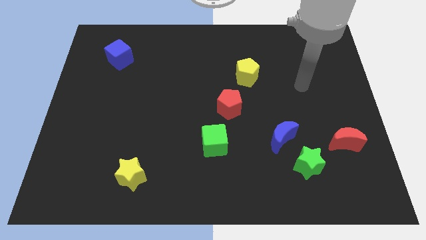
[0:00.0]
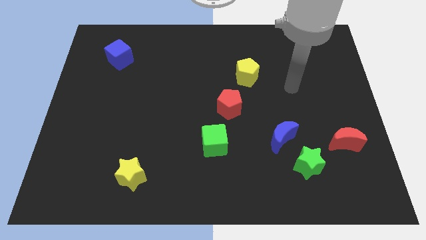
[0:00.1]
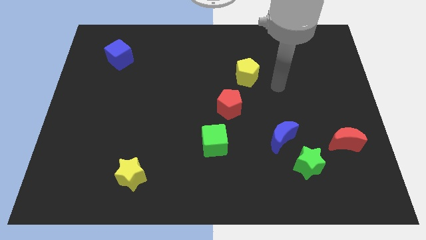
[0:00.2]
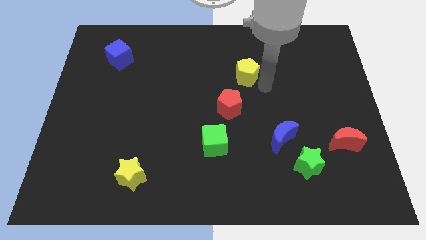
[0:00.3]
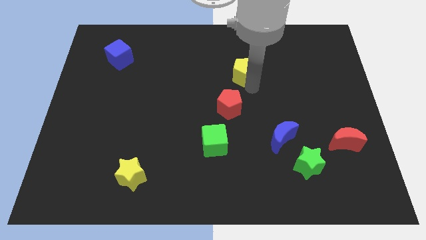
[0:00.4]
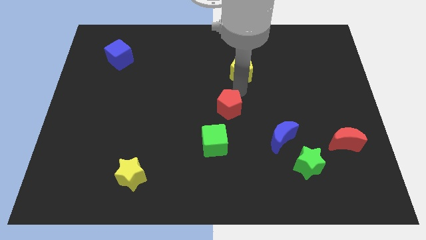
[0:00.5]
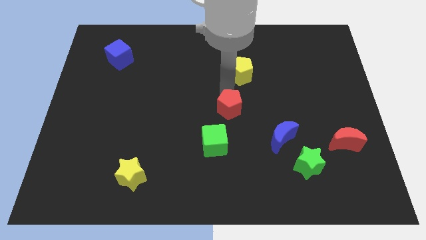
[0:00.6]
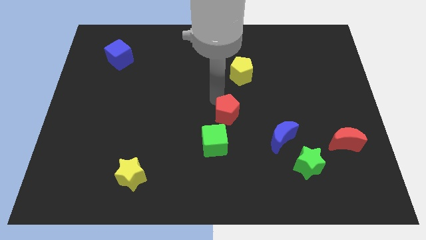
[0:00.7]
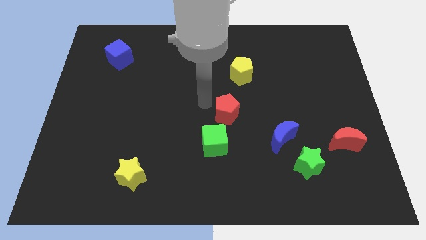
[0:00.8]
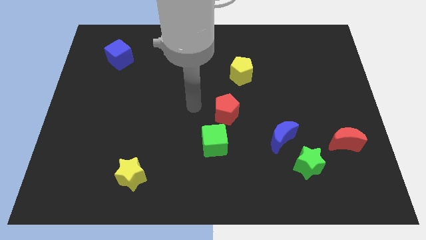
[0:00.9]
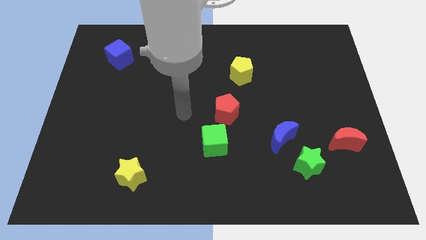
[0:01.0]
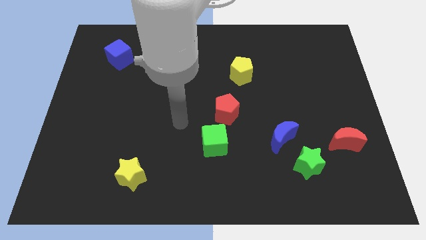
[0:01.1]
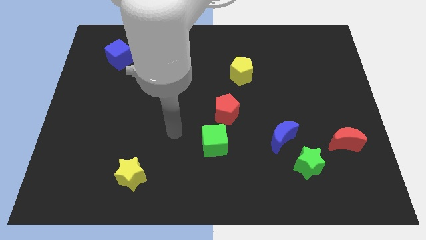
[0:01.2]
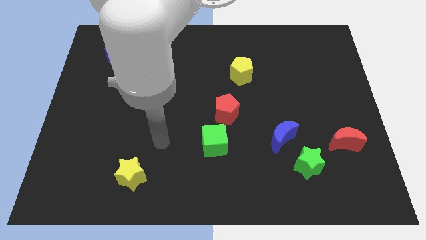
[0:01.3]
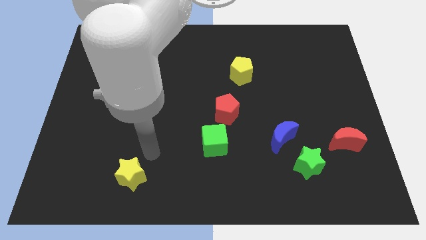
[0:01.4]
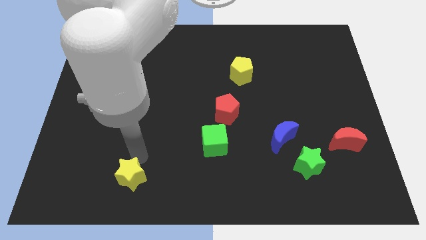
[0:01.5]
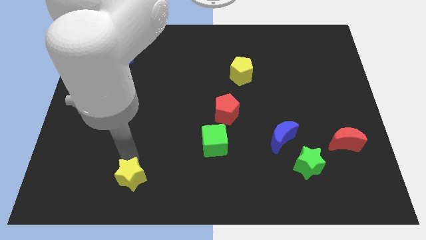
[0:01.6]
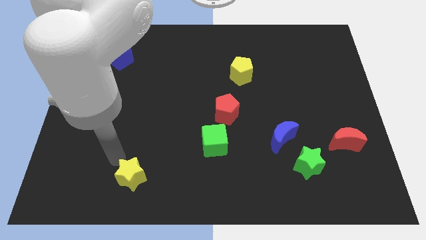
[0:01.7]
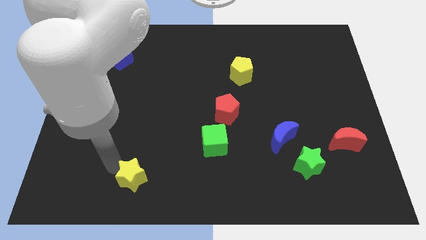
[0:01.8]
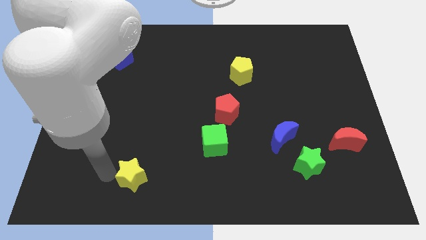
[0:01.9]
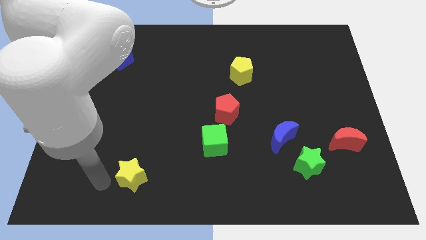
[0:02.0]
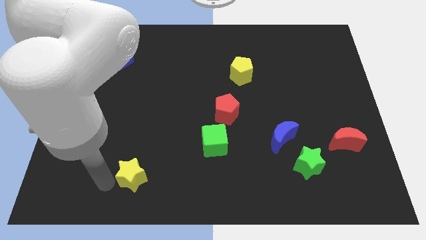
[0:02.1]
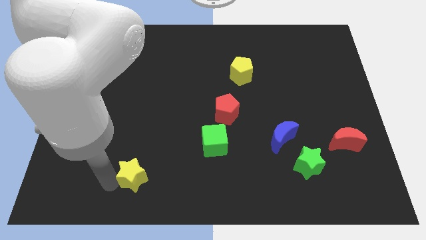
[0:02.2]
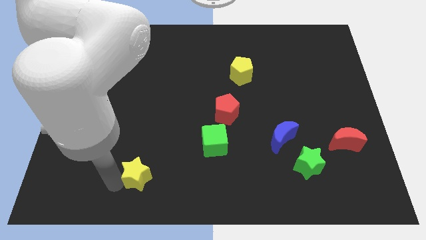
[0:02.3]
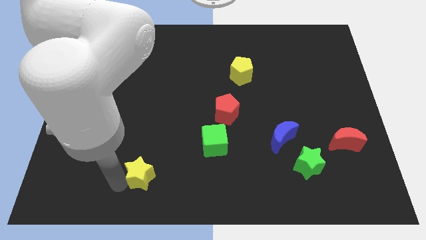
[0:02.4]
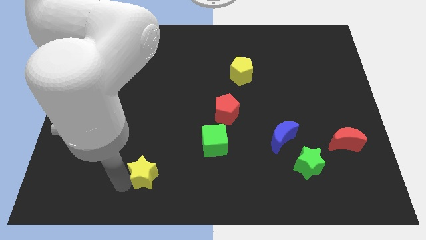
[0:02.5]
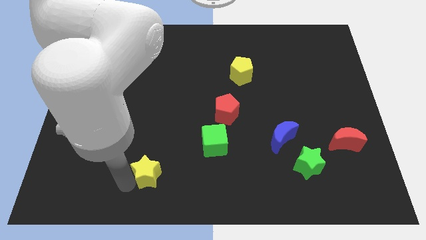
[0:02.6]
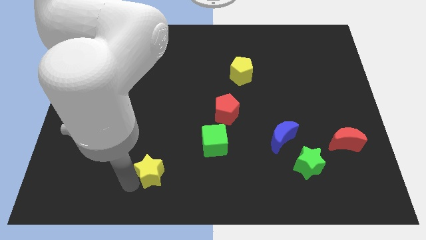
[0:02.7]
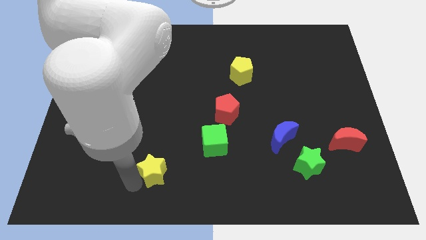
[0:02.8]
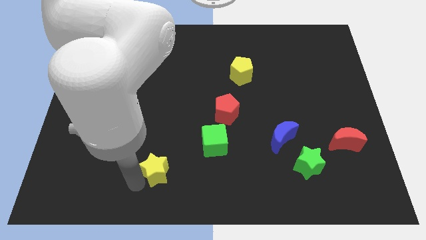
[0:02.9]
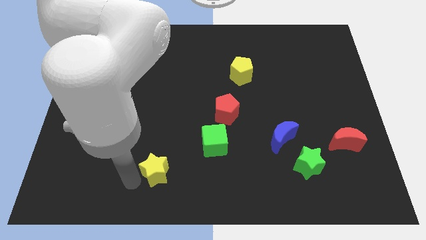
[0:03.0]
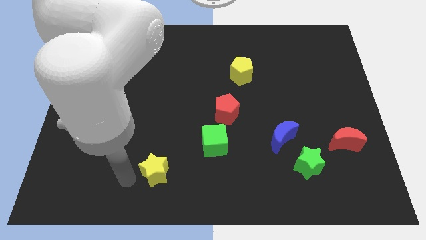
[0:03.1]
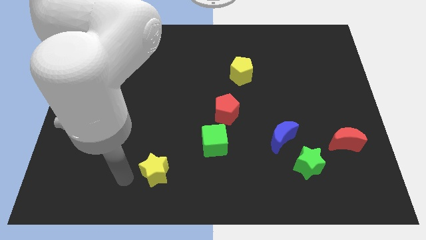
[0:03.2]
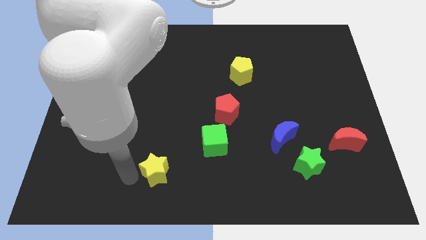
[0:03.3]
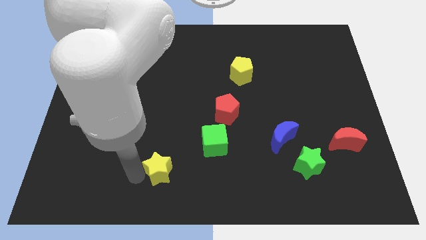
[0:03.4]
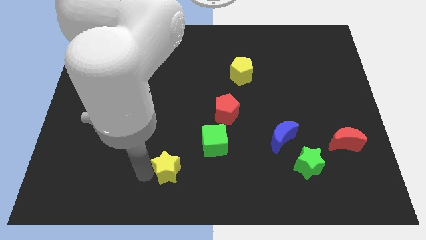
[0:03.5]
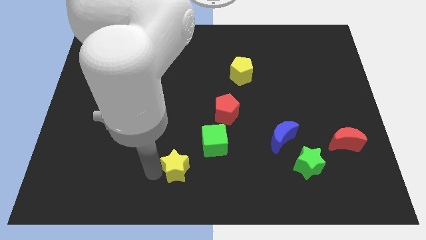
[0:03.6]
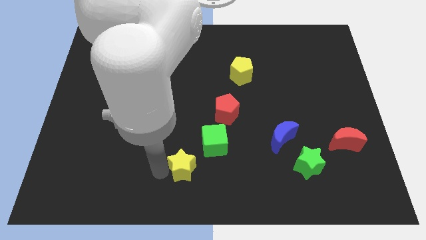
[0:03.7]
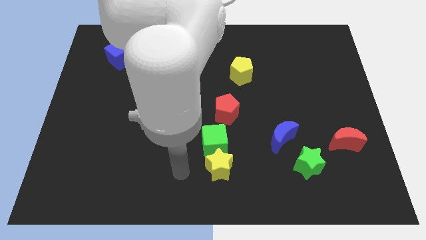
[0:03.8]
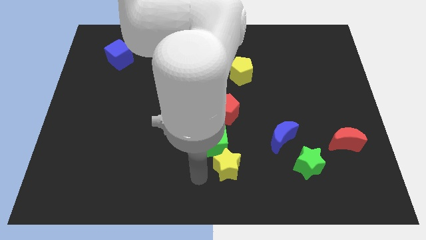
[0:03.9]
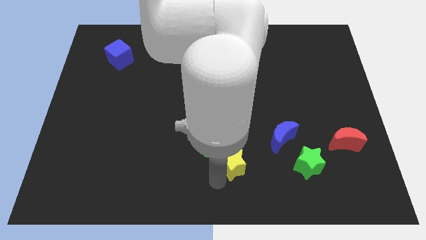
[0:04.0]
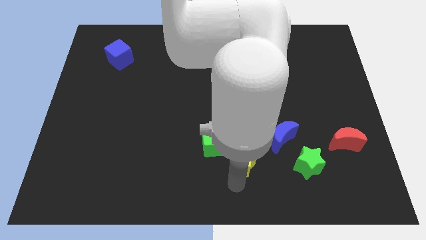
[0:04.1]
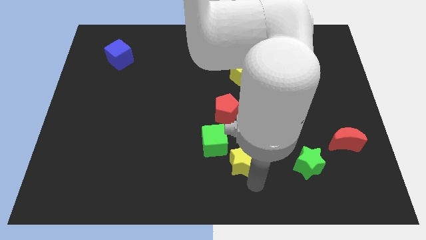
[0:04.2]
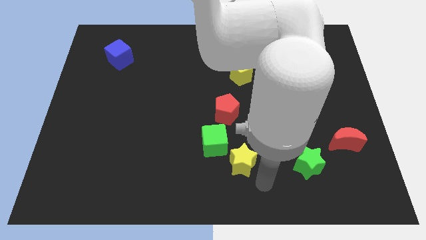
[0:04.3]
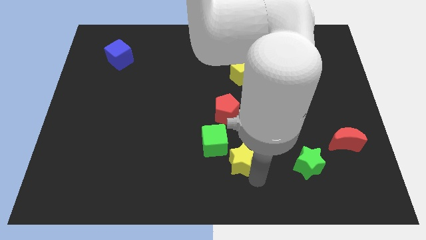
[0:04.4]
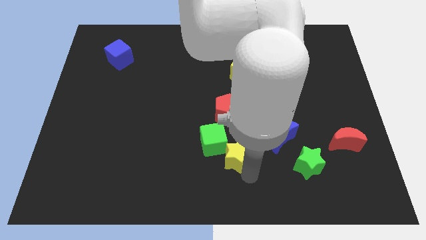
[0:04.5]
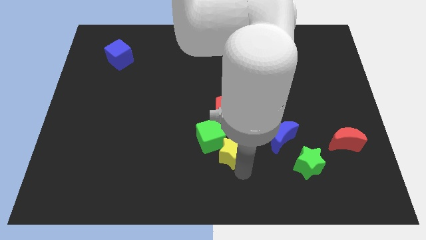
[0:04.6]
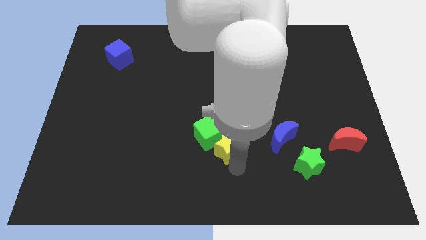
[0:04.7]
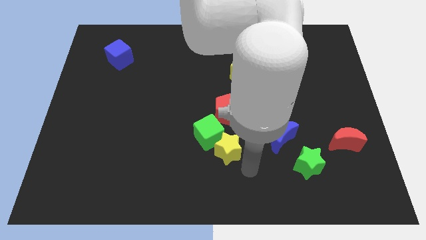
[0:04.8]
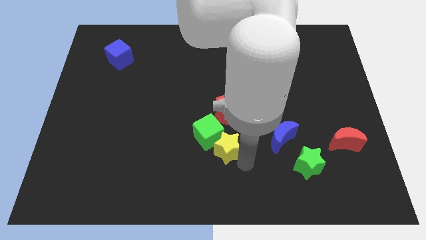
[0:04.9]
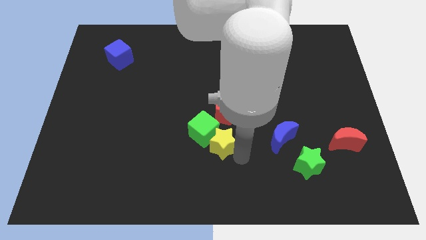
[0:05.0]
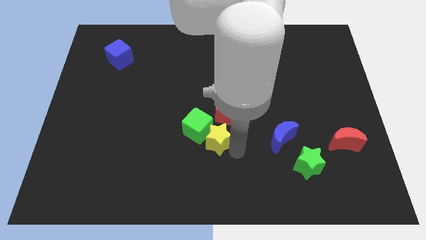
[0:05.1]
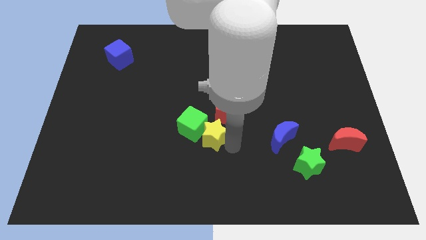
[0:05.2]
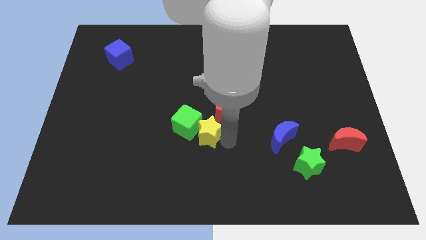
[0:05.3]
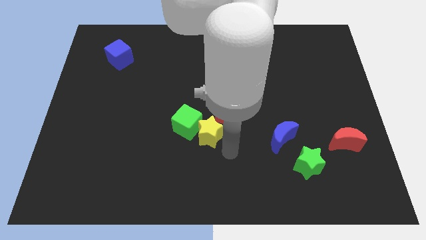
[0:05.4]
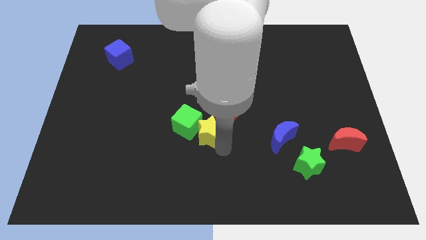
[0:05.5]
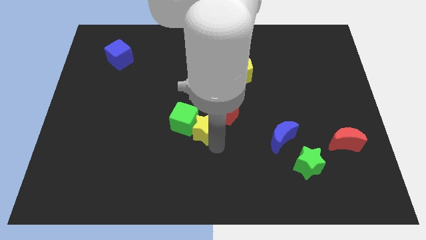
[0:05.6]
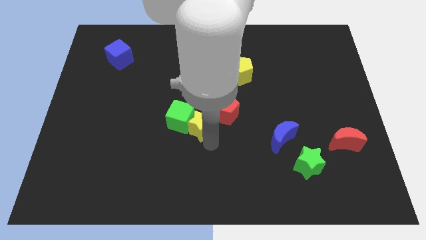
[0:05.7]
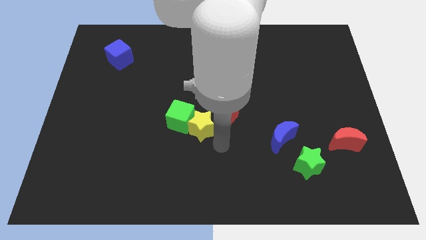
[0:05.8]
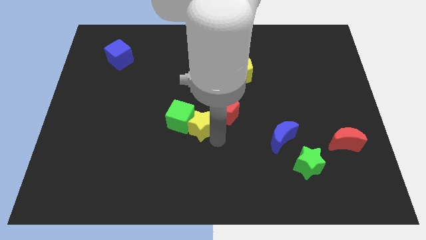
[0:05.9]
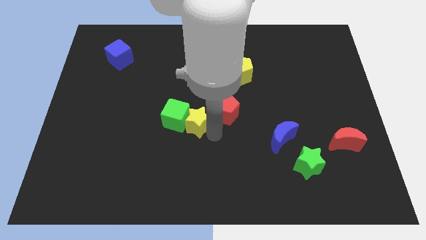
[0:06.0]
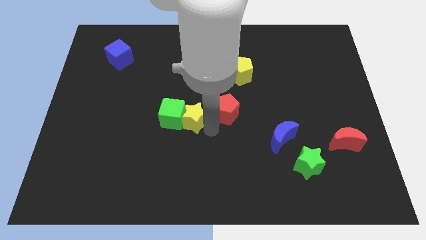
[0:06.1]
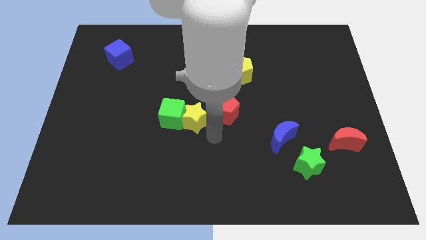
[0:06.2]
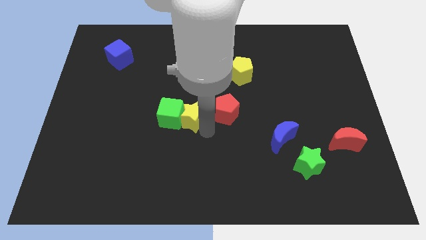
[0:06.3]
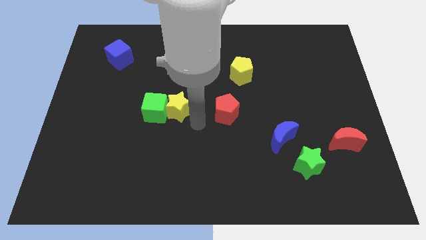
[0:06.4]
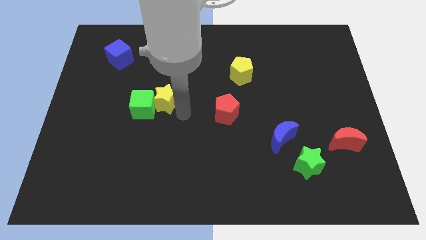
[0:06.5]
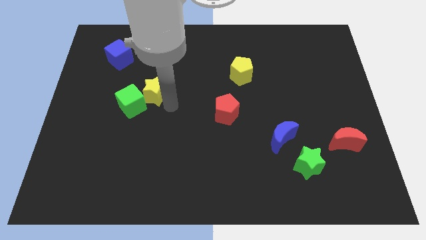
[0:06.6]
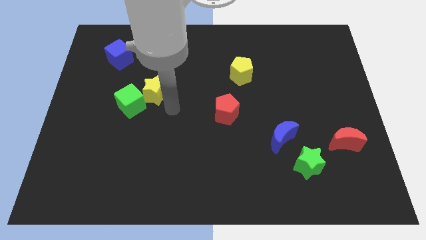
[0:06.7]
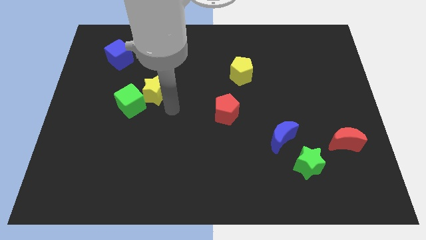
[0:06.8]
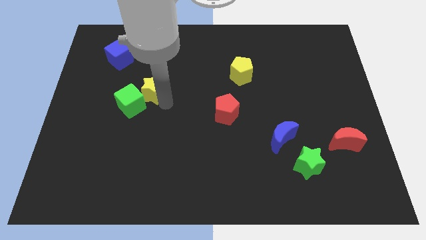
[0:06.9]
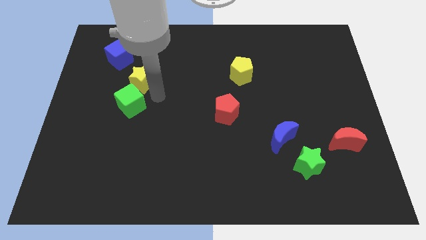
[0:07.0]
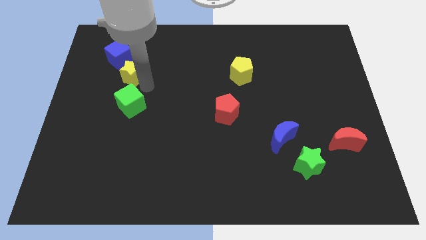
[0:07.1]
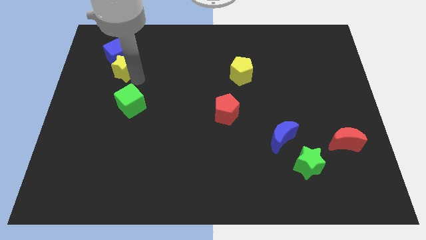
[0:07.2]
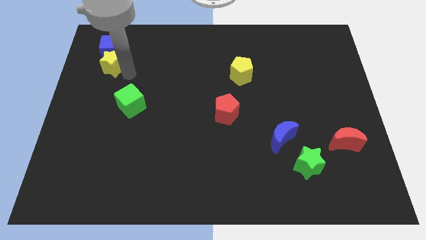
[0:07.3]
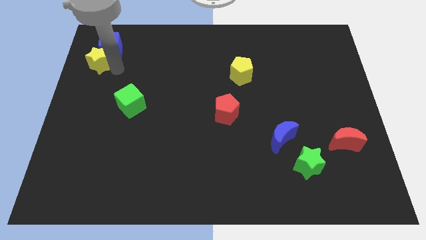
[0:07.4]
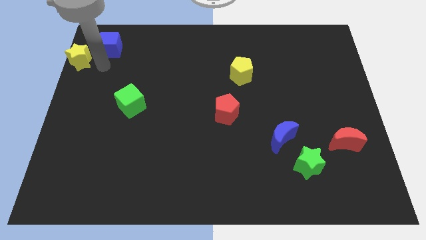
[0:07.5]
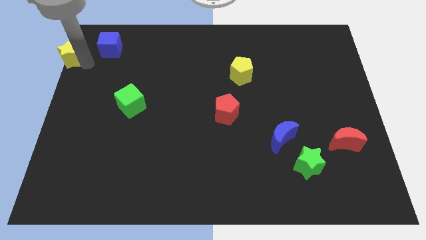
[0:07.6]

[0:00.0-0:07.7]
push the yellow star to the upper left corner
